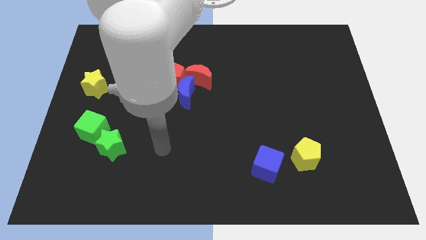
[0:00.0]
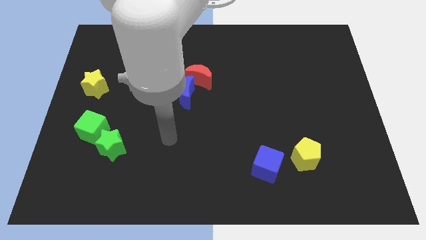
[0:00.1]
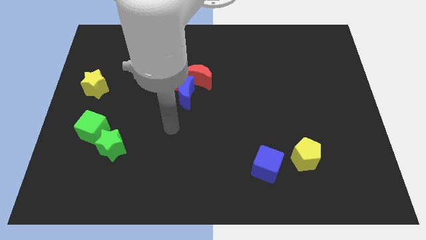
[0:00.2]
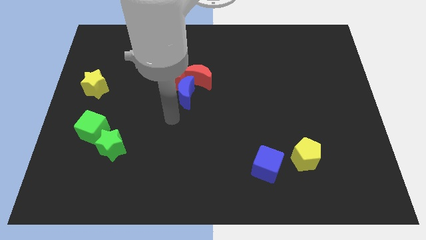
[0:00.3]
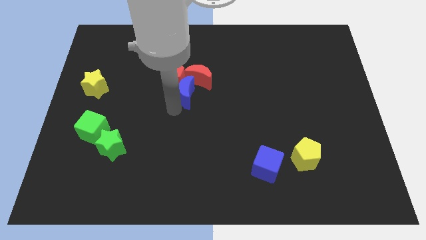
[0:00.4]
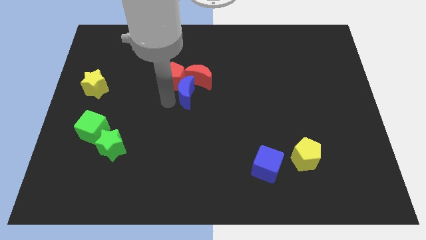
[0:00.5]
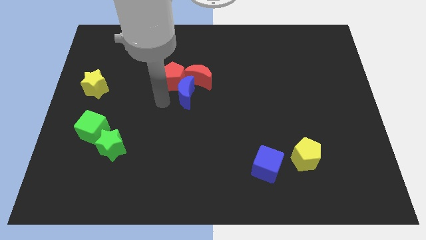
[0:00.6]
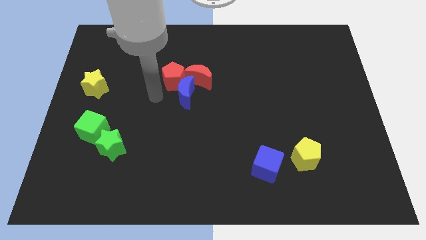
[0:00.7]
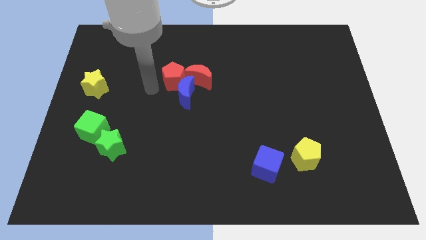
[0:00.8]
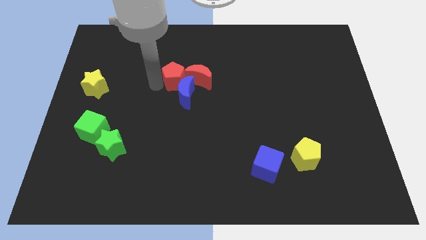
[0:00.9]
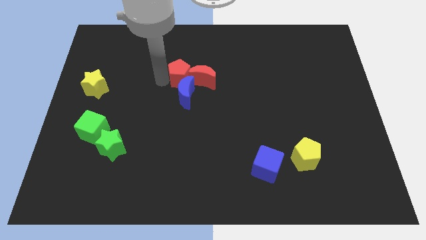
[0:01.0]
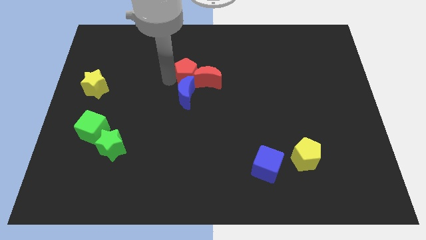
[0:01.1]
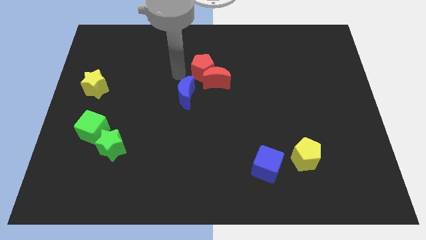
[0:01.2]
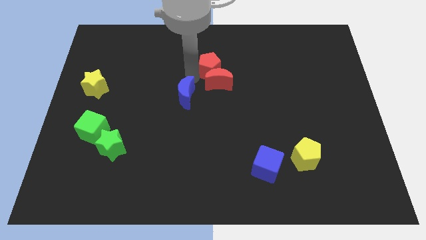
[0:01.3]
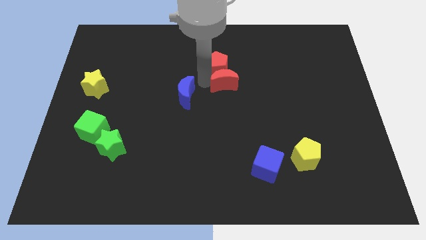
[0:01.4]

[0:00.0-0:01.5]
pull the blue moon apart from the red pentagon and red moon

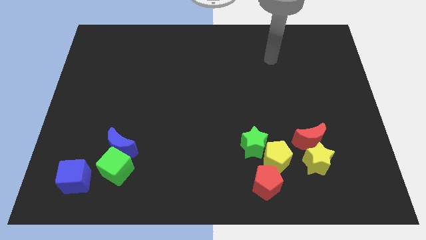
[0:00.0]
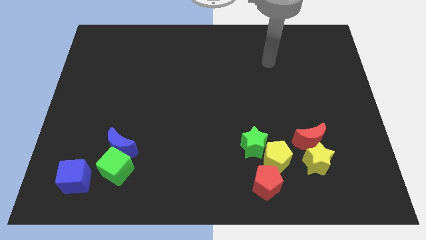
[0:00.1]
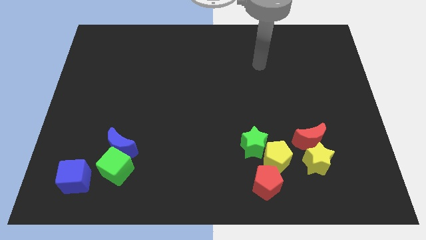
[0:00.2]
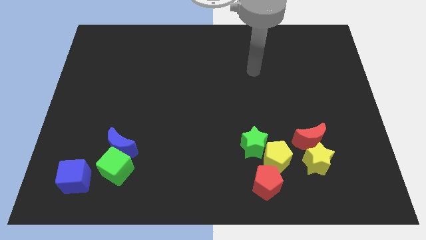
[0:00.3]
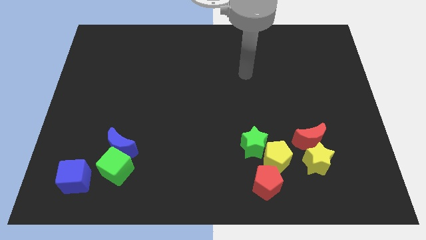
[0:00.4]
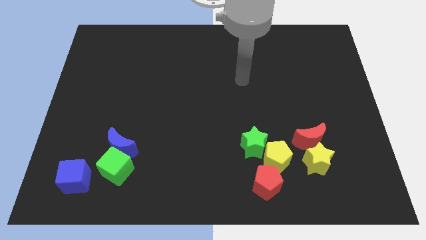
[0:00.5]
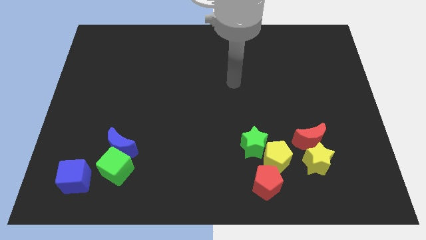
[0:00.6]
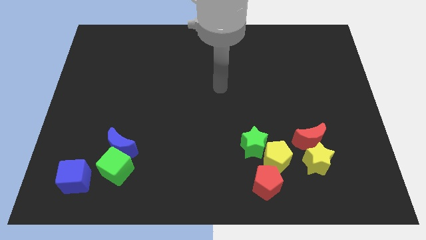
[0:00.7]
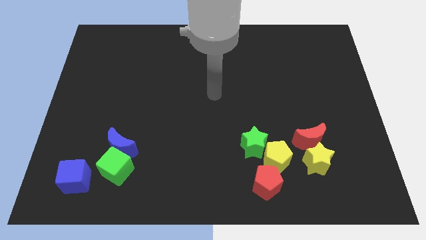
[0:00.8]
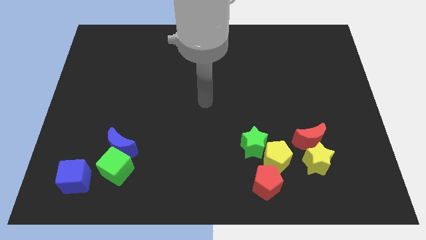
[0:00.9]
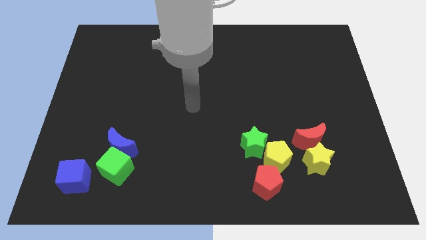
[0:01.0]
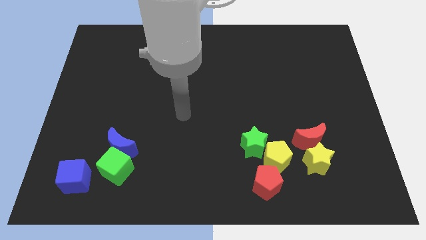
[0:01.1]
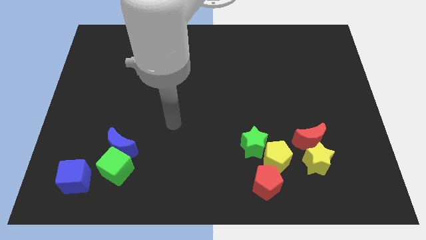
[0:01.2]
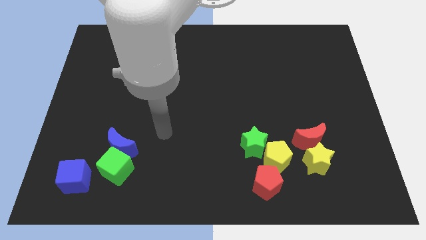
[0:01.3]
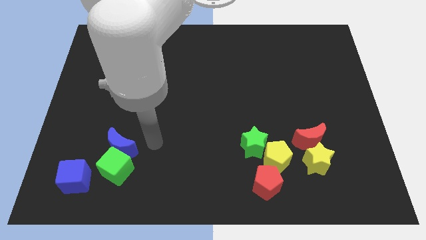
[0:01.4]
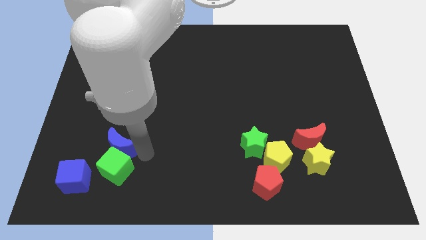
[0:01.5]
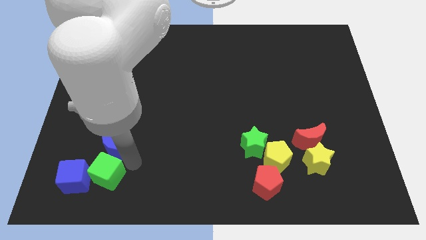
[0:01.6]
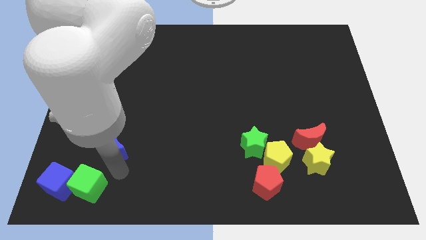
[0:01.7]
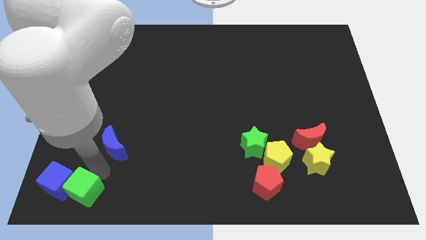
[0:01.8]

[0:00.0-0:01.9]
separate the blue moon from the green cube

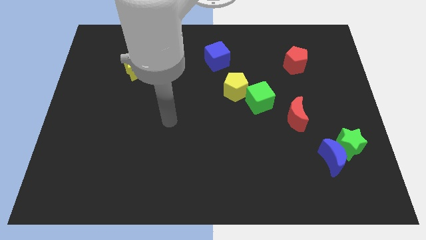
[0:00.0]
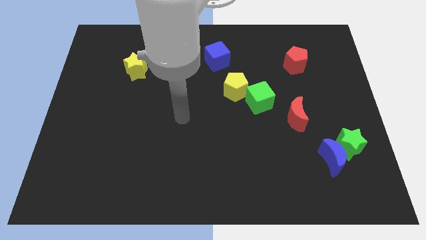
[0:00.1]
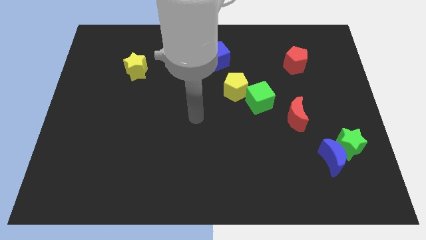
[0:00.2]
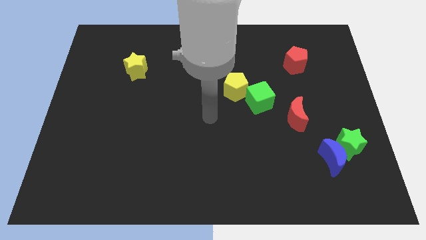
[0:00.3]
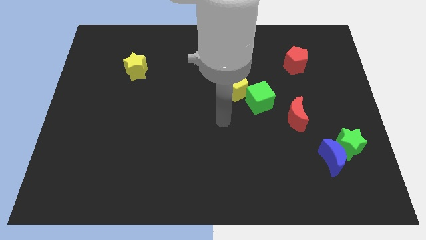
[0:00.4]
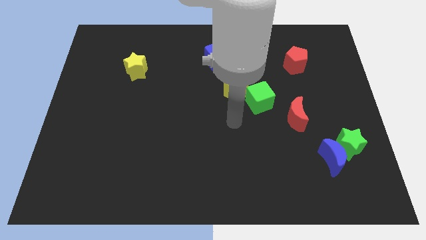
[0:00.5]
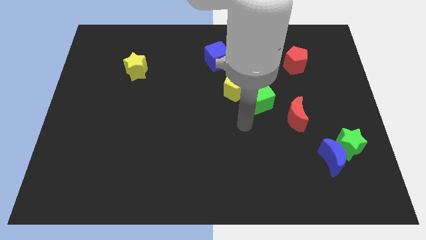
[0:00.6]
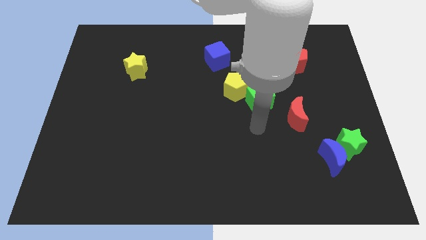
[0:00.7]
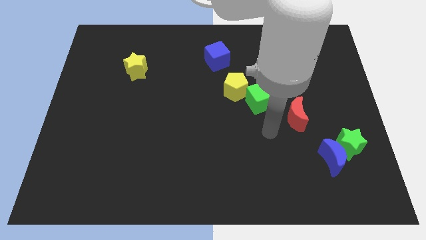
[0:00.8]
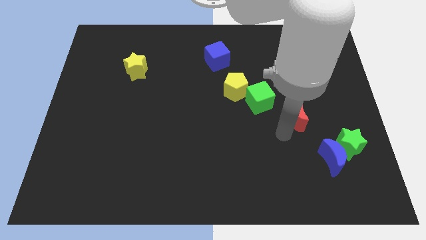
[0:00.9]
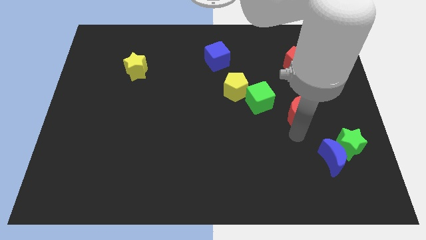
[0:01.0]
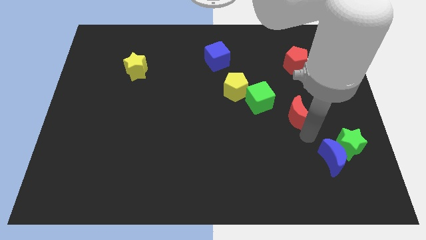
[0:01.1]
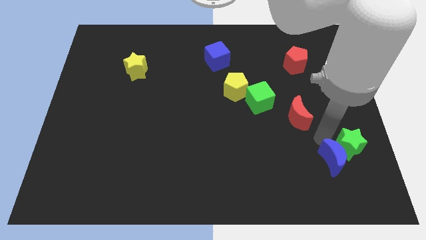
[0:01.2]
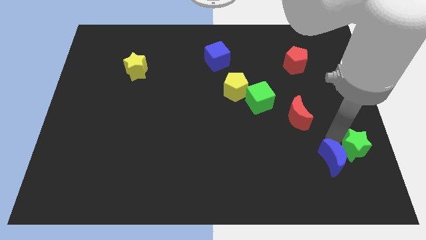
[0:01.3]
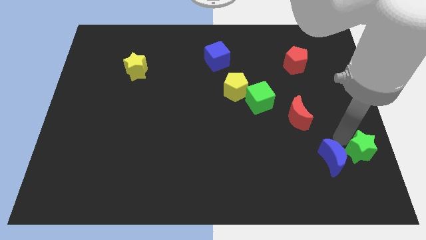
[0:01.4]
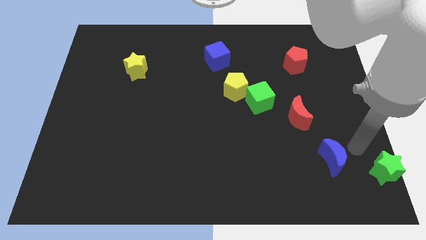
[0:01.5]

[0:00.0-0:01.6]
pull the blue moon apart from the green star

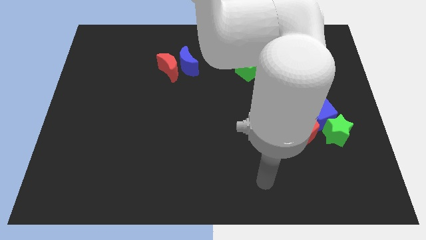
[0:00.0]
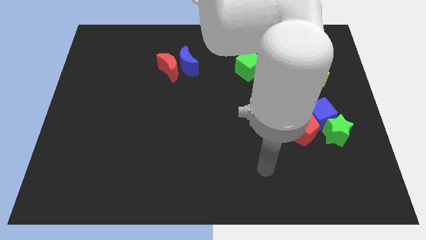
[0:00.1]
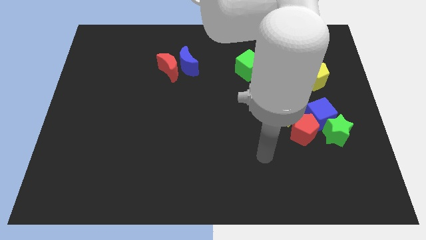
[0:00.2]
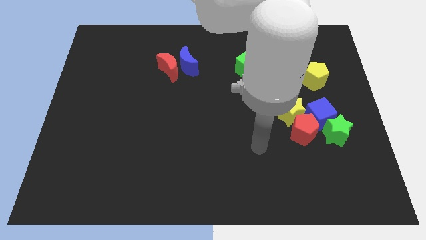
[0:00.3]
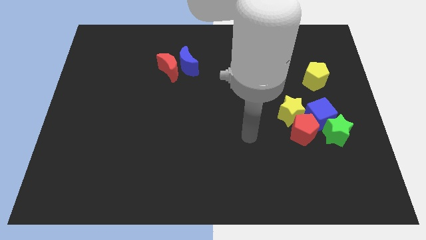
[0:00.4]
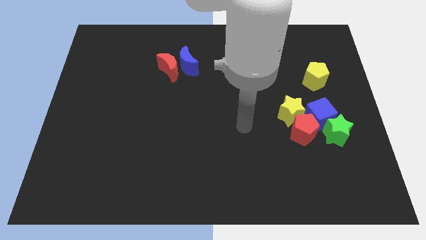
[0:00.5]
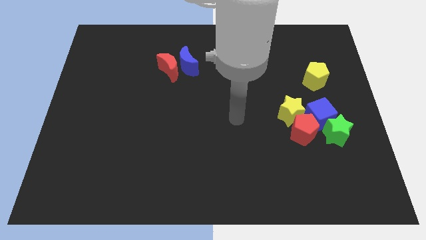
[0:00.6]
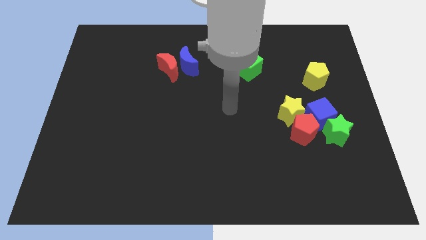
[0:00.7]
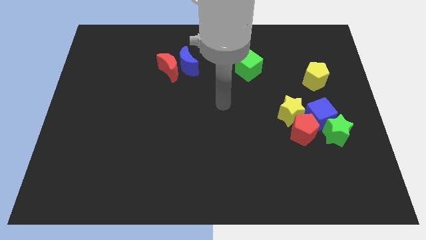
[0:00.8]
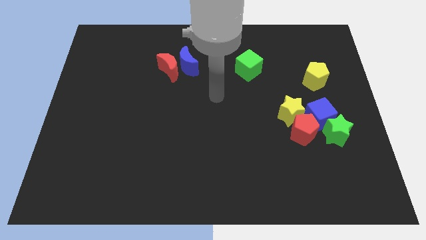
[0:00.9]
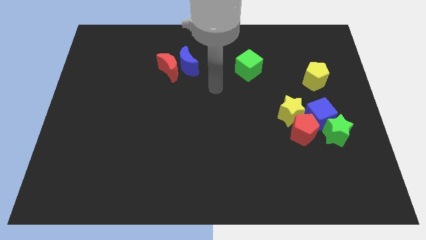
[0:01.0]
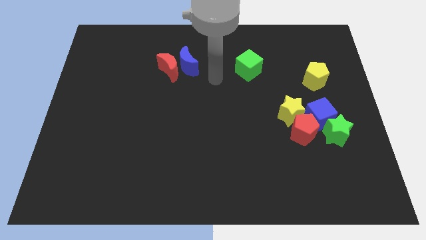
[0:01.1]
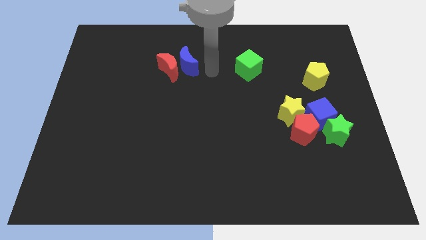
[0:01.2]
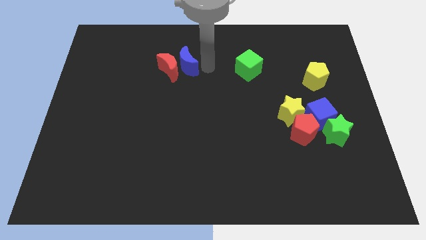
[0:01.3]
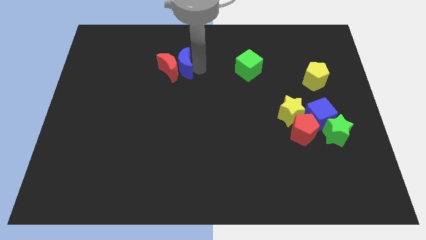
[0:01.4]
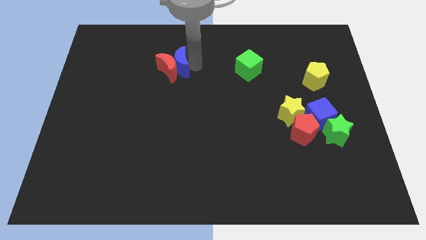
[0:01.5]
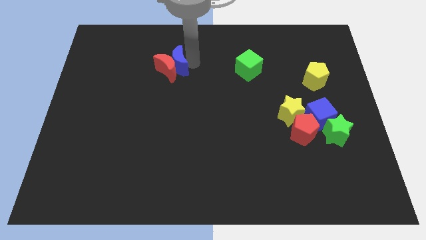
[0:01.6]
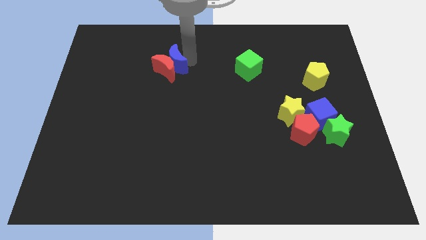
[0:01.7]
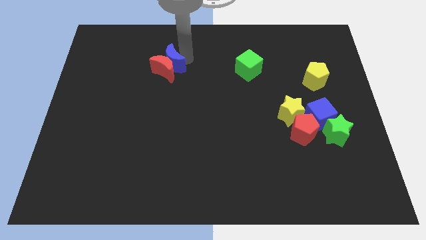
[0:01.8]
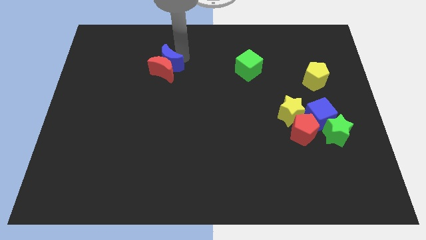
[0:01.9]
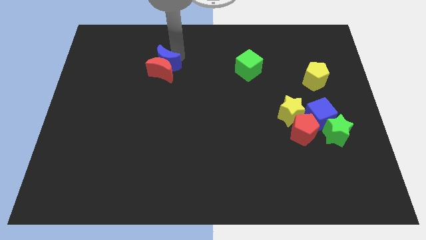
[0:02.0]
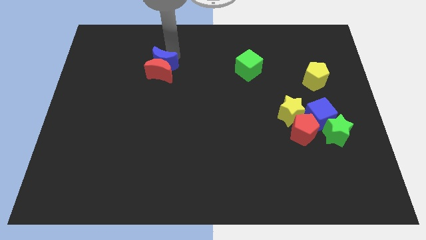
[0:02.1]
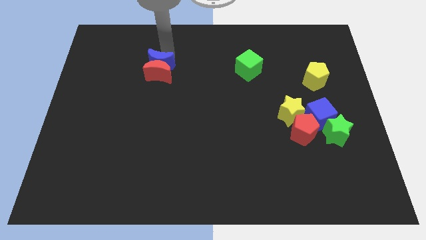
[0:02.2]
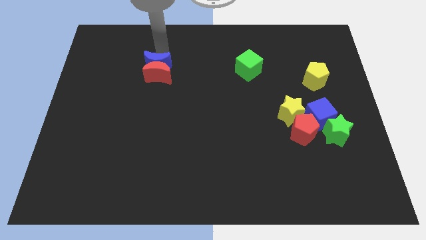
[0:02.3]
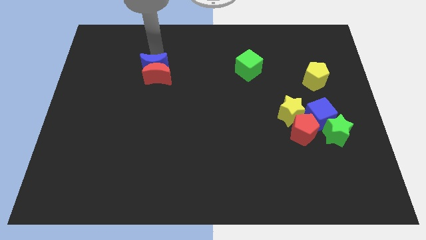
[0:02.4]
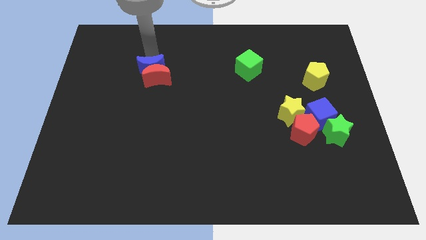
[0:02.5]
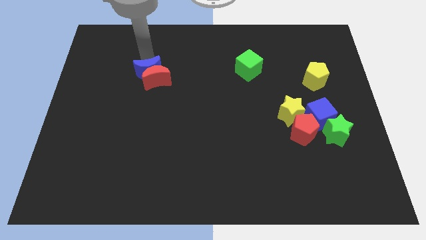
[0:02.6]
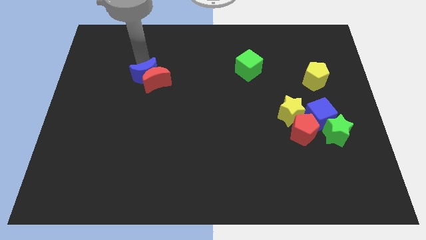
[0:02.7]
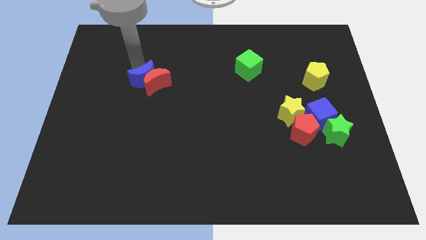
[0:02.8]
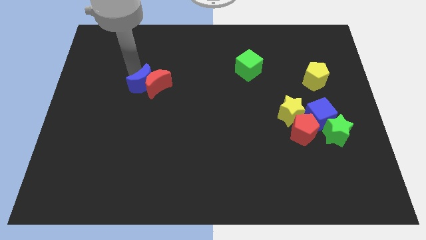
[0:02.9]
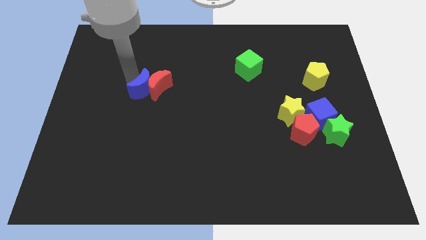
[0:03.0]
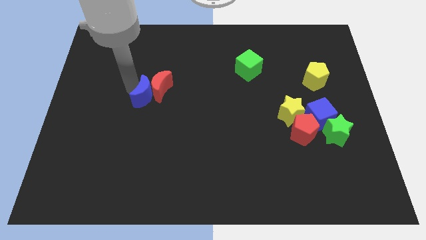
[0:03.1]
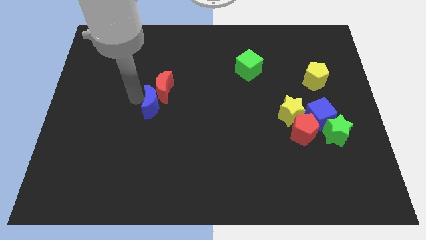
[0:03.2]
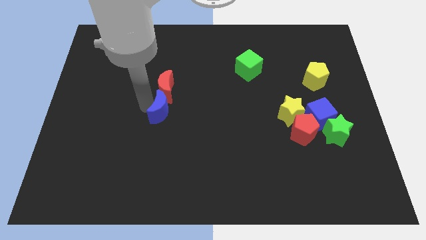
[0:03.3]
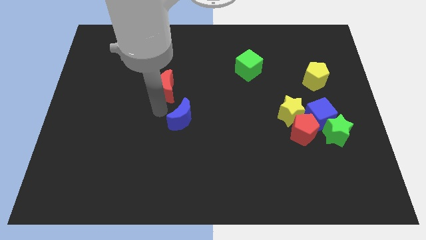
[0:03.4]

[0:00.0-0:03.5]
pull the red moon apart from the blue moon

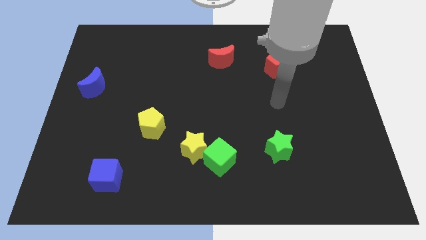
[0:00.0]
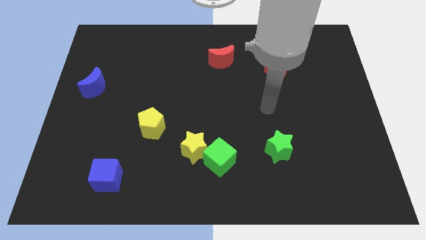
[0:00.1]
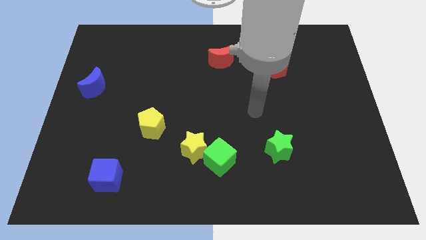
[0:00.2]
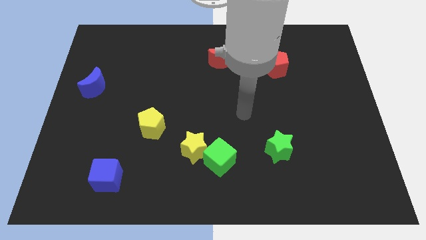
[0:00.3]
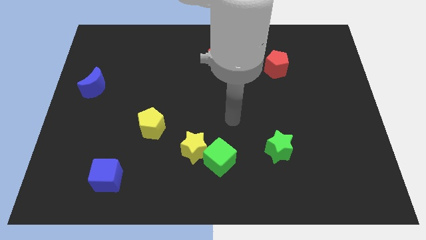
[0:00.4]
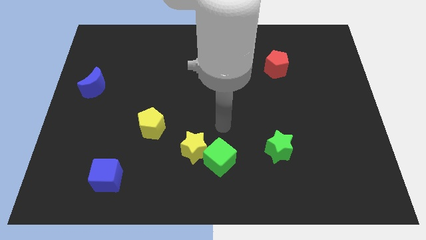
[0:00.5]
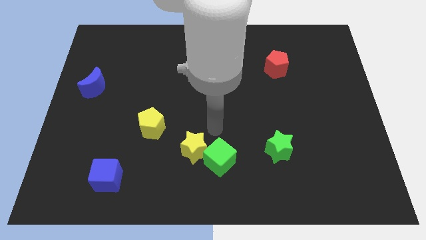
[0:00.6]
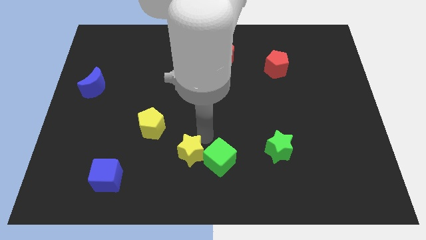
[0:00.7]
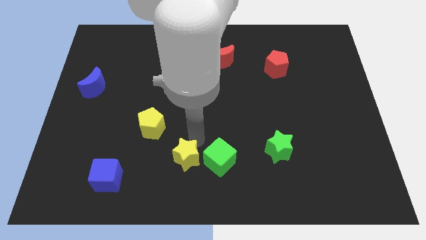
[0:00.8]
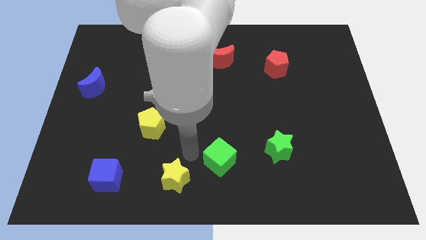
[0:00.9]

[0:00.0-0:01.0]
separate the green cube from the yellow star
